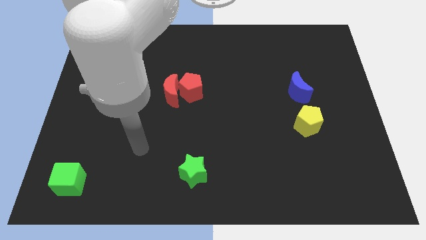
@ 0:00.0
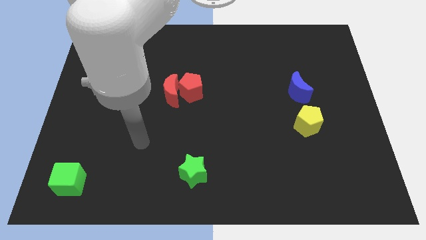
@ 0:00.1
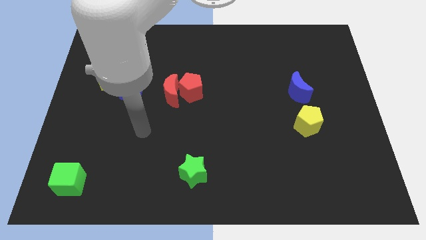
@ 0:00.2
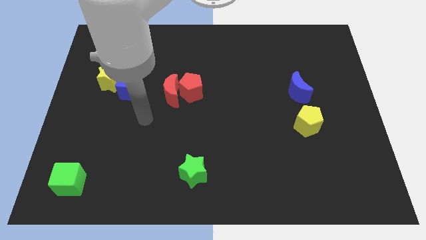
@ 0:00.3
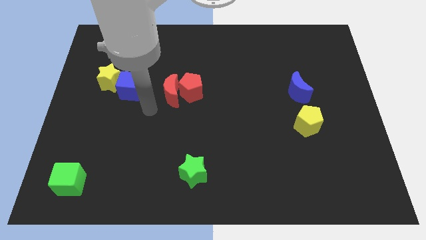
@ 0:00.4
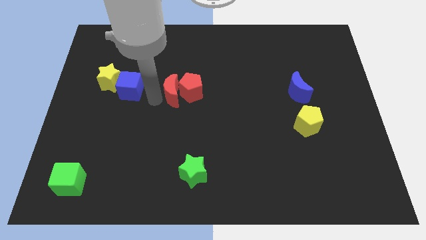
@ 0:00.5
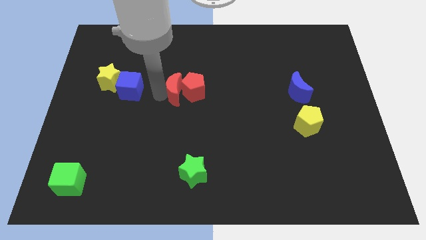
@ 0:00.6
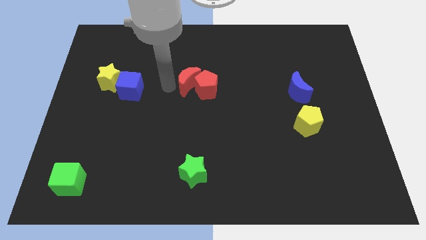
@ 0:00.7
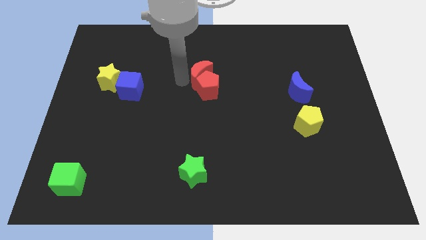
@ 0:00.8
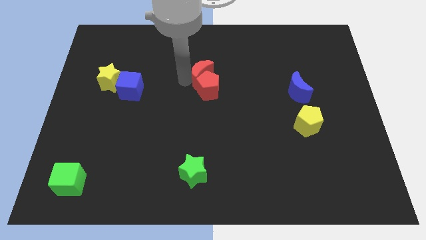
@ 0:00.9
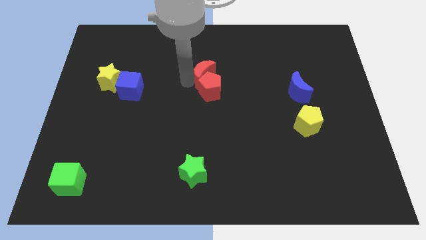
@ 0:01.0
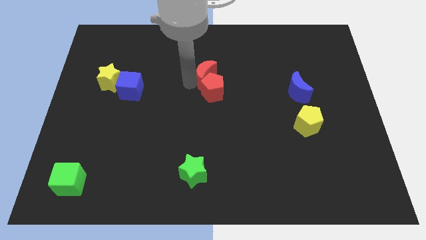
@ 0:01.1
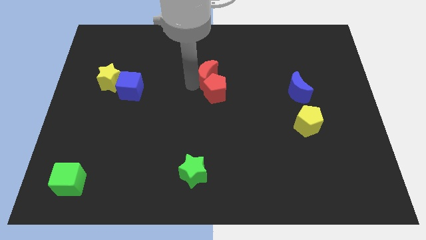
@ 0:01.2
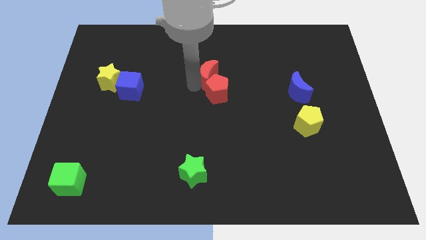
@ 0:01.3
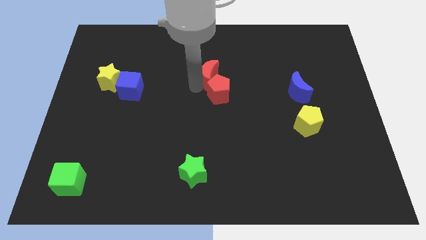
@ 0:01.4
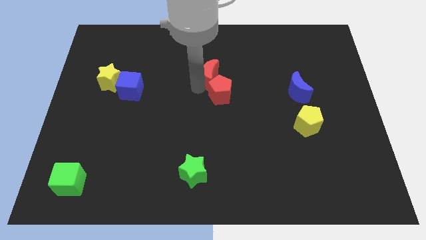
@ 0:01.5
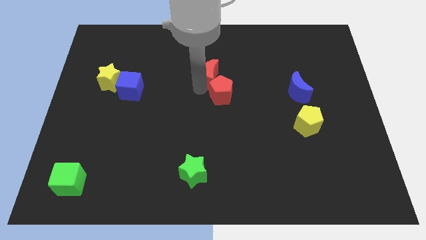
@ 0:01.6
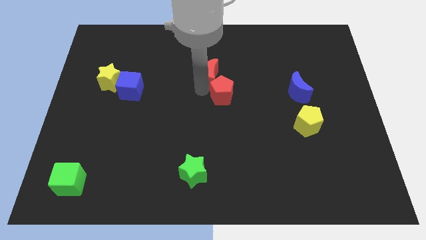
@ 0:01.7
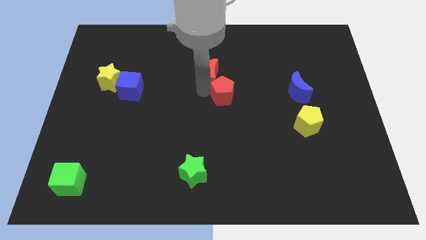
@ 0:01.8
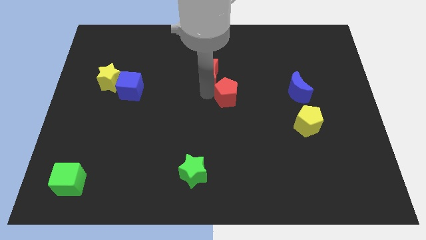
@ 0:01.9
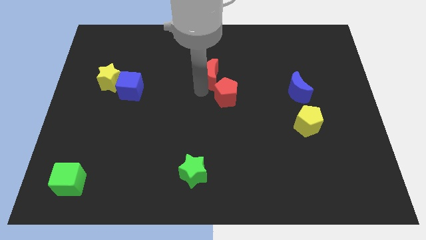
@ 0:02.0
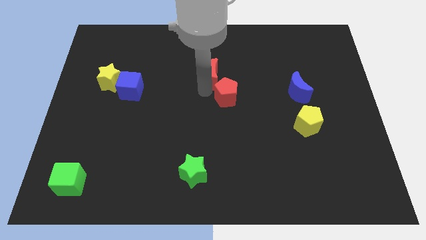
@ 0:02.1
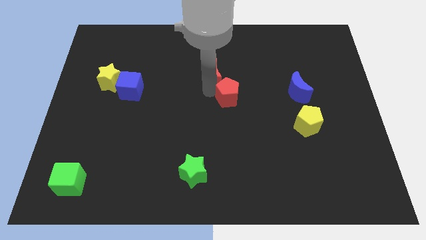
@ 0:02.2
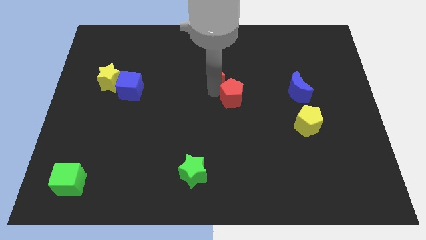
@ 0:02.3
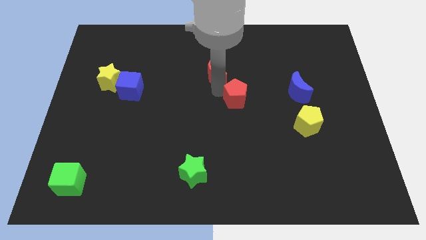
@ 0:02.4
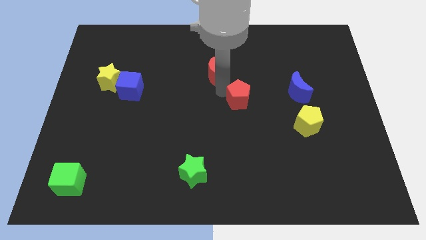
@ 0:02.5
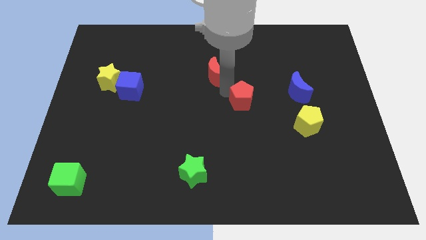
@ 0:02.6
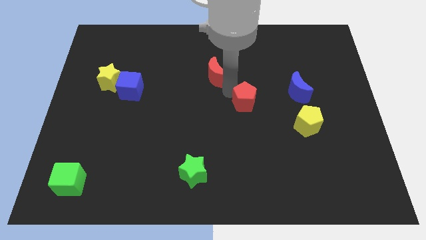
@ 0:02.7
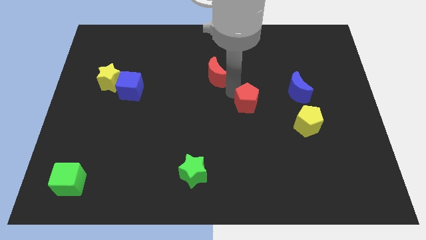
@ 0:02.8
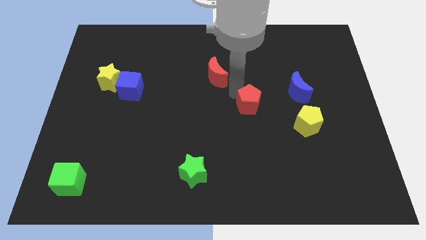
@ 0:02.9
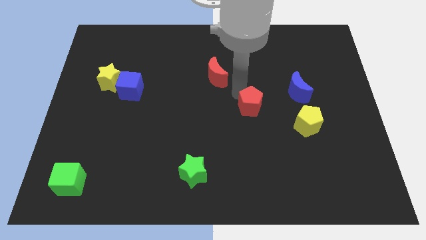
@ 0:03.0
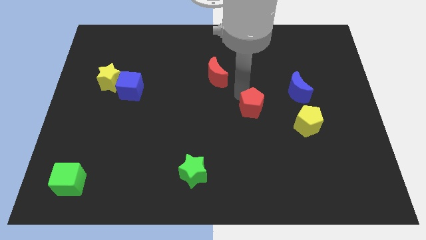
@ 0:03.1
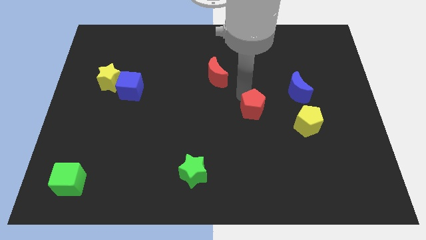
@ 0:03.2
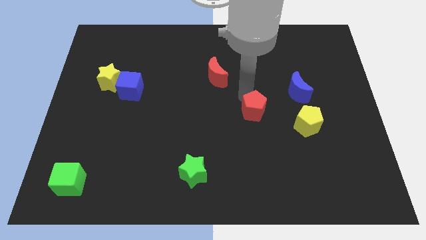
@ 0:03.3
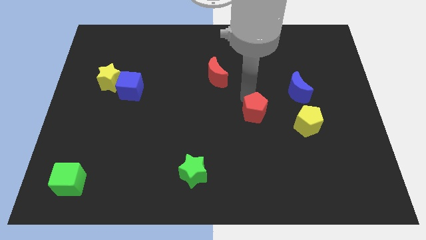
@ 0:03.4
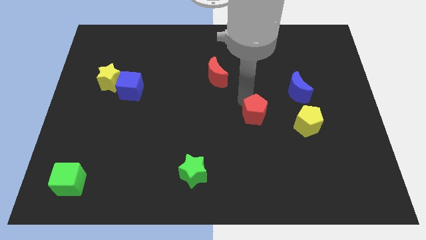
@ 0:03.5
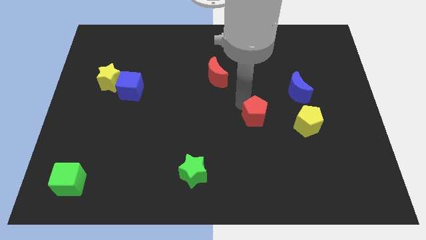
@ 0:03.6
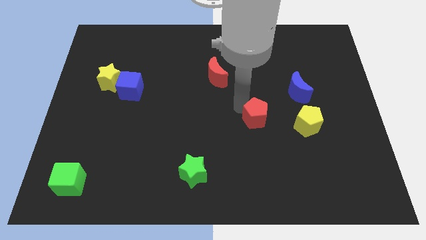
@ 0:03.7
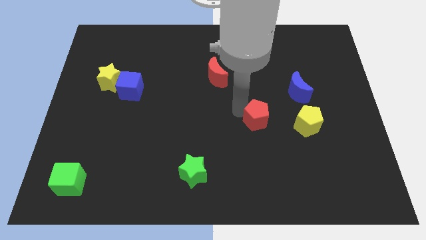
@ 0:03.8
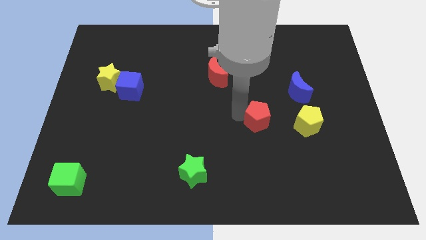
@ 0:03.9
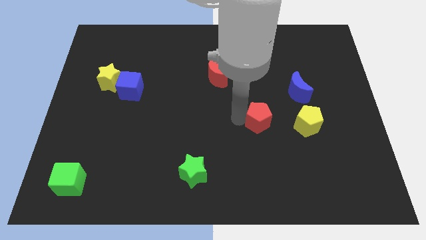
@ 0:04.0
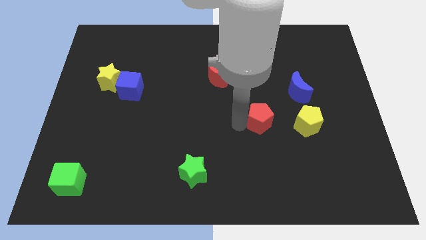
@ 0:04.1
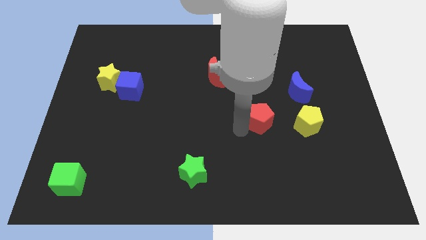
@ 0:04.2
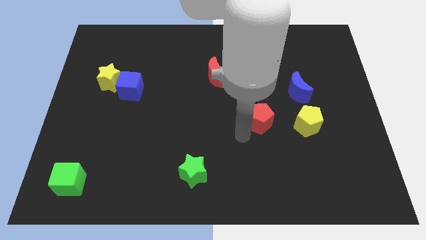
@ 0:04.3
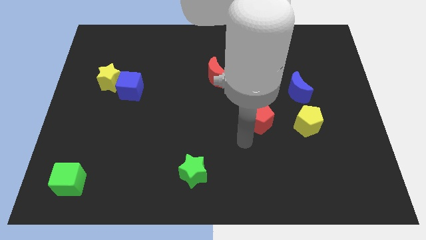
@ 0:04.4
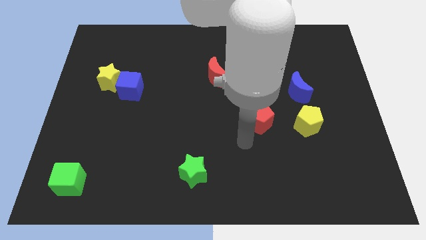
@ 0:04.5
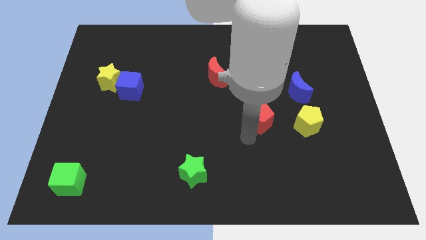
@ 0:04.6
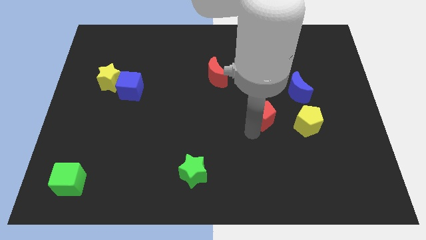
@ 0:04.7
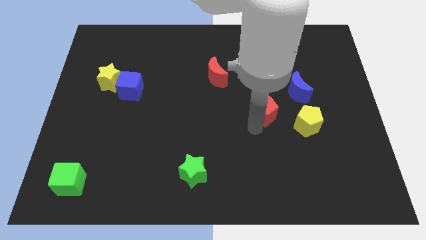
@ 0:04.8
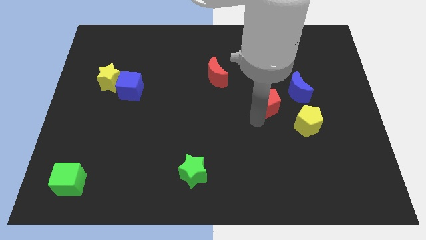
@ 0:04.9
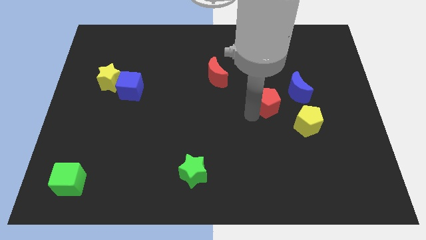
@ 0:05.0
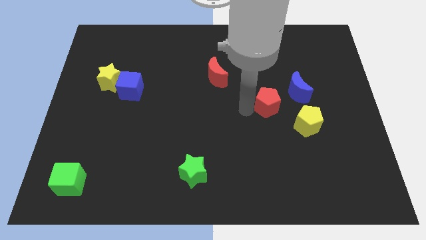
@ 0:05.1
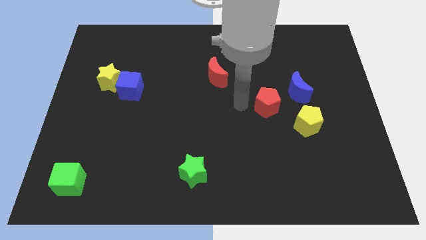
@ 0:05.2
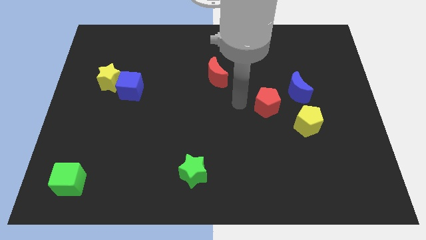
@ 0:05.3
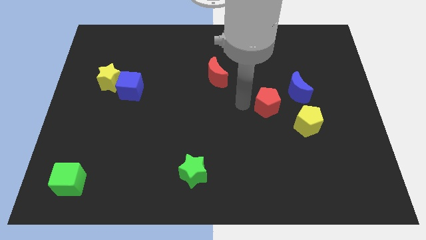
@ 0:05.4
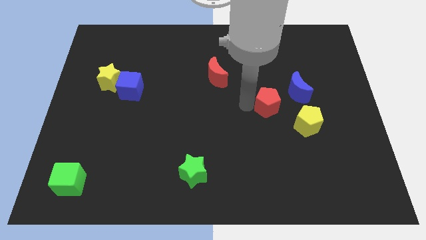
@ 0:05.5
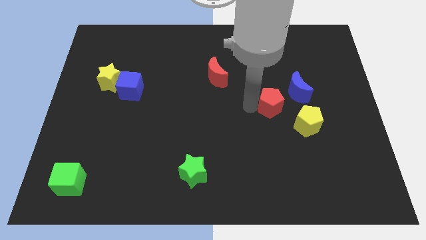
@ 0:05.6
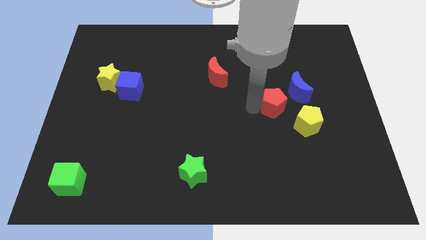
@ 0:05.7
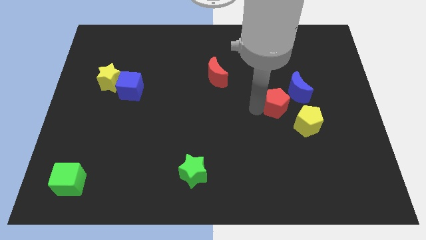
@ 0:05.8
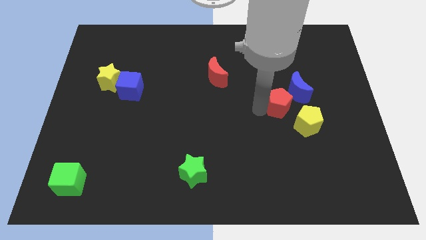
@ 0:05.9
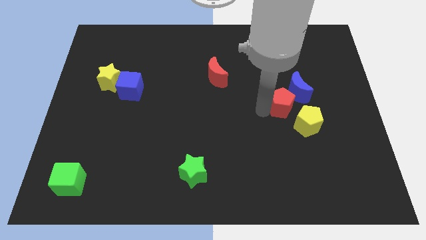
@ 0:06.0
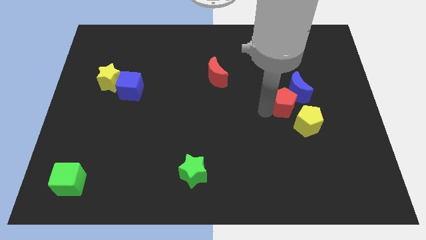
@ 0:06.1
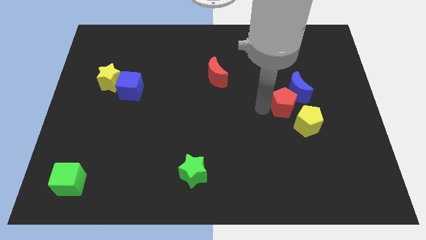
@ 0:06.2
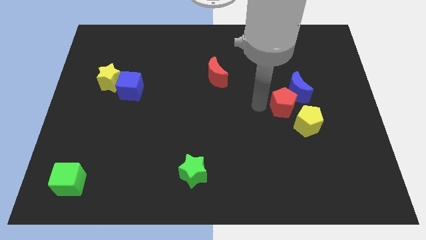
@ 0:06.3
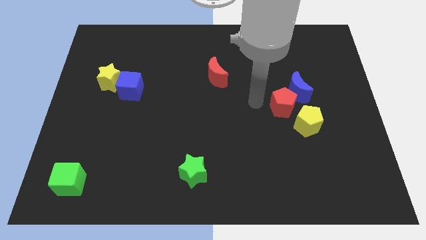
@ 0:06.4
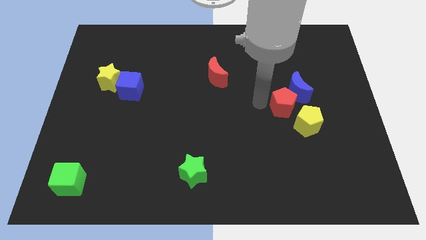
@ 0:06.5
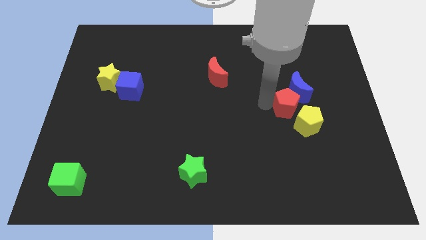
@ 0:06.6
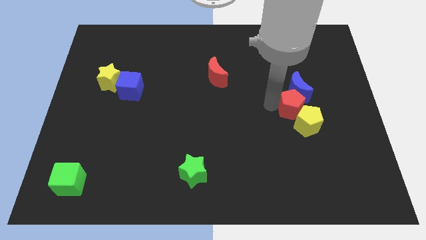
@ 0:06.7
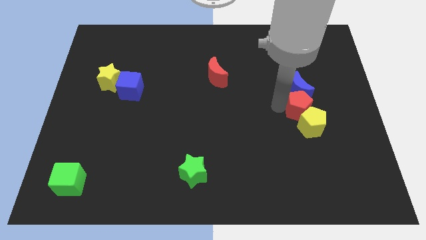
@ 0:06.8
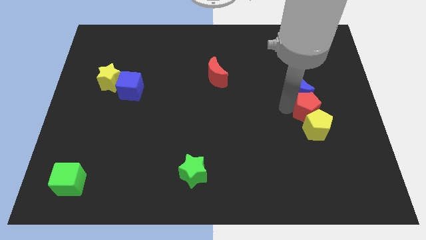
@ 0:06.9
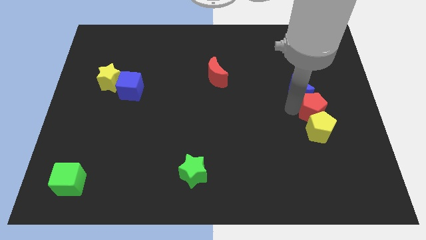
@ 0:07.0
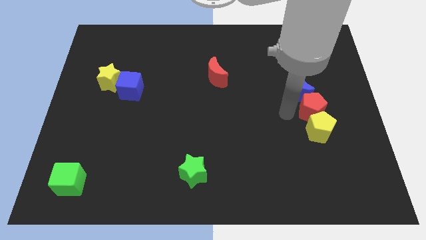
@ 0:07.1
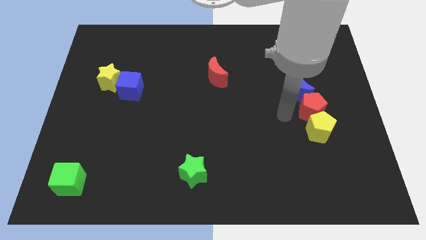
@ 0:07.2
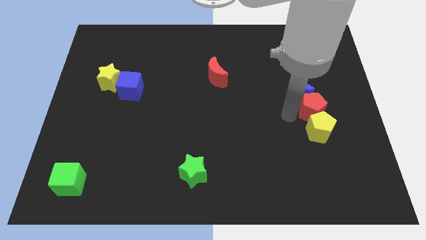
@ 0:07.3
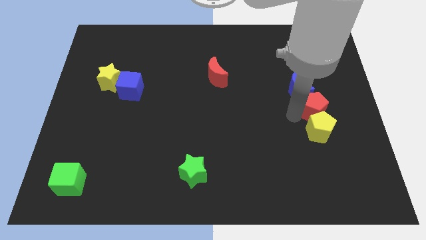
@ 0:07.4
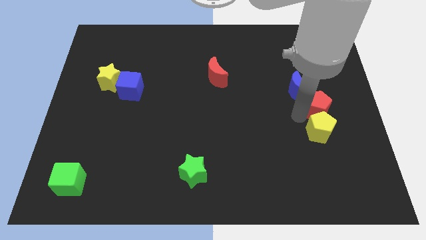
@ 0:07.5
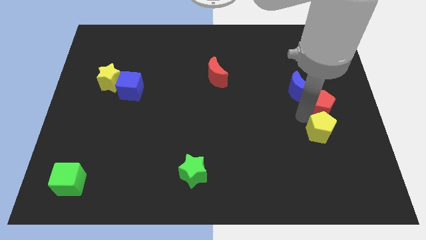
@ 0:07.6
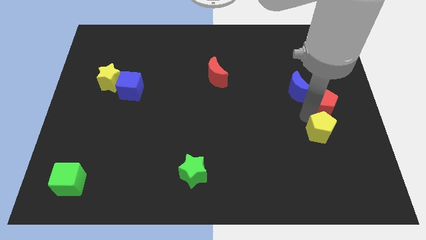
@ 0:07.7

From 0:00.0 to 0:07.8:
slide the red pentagon to the right side
